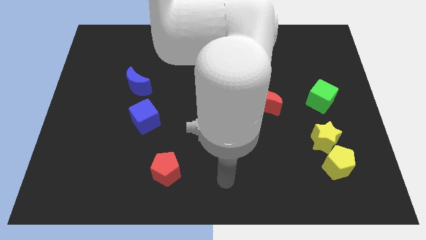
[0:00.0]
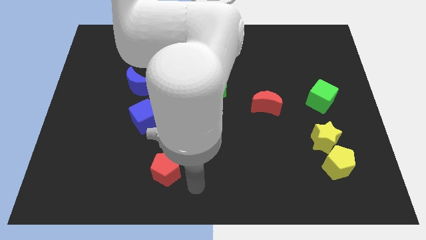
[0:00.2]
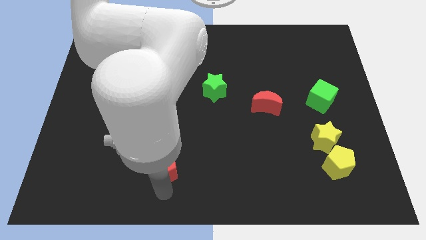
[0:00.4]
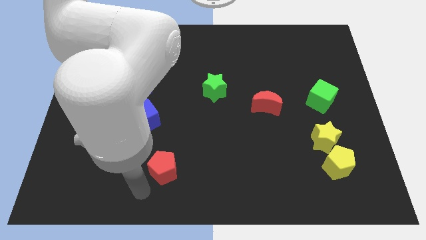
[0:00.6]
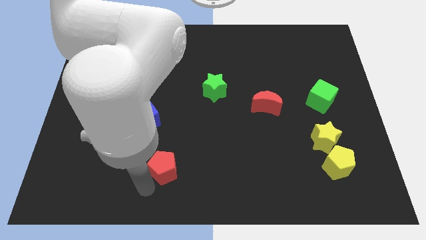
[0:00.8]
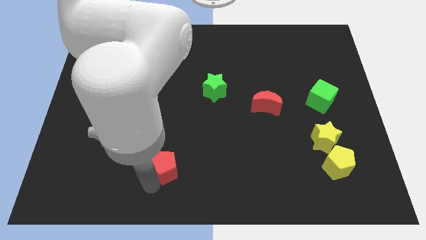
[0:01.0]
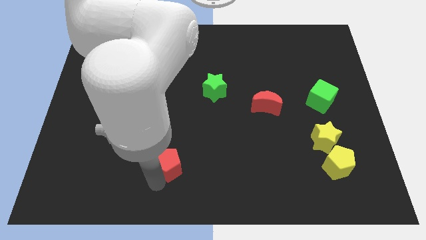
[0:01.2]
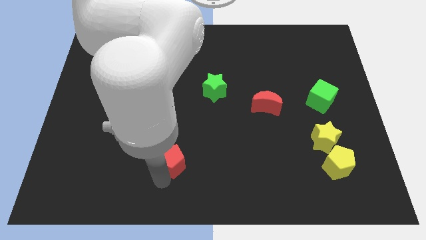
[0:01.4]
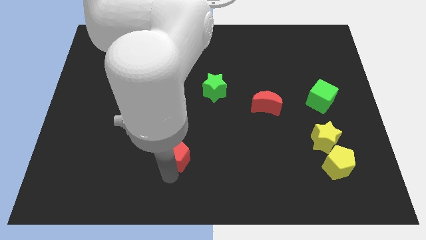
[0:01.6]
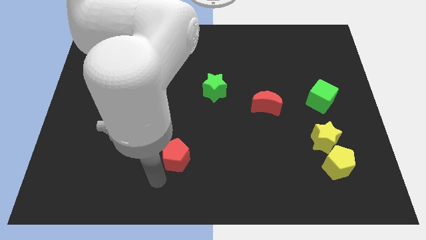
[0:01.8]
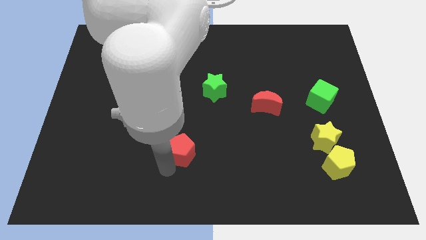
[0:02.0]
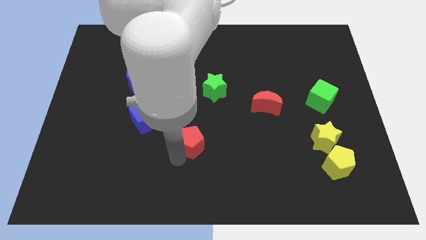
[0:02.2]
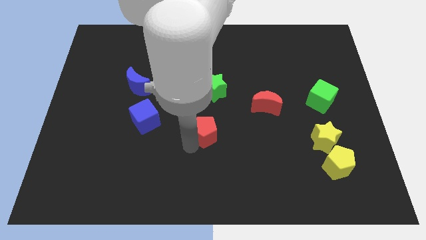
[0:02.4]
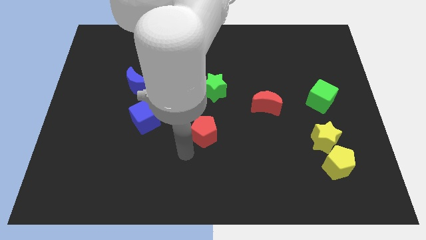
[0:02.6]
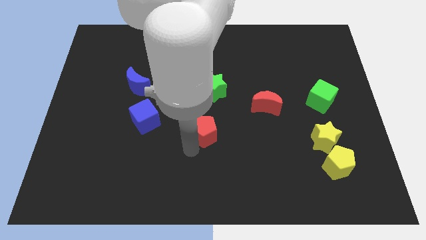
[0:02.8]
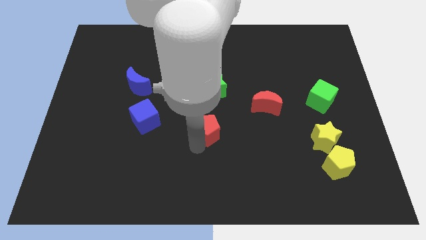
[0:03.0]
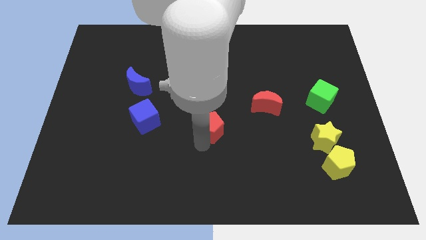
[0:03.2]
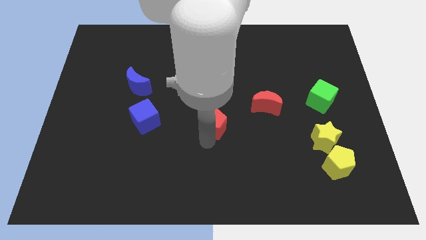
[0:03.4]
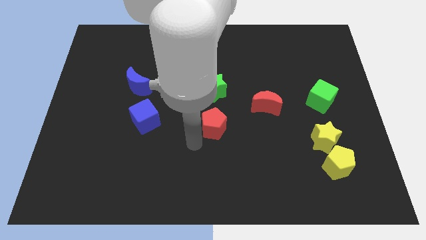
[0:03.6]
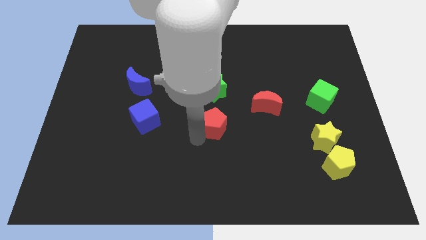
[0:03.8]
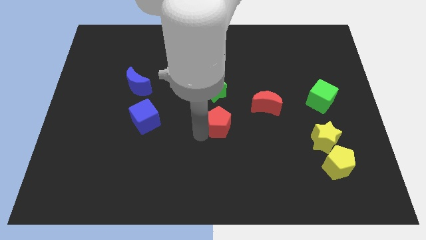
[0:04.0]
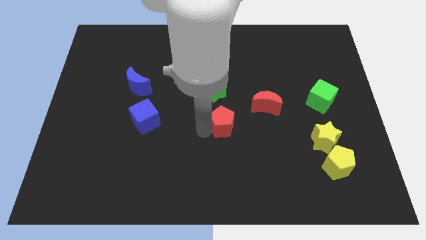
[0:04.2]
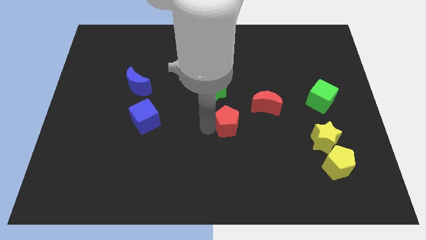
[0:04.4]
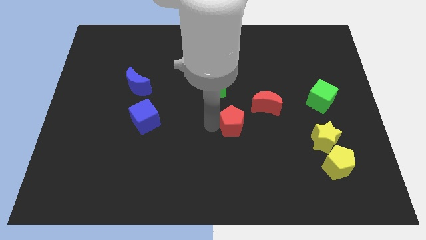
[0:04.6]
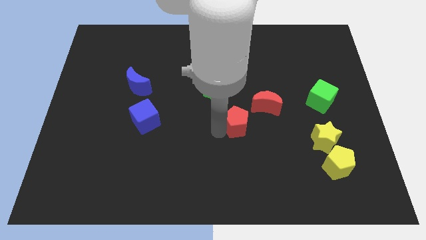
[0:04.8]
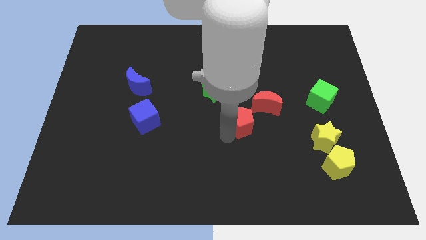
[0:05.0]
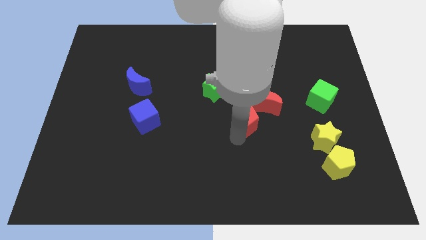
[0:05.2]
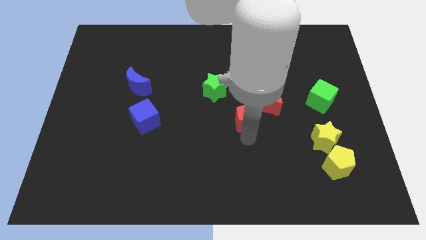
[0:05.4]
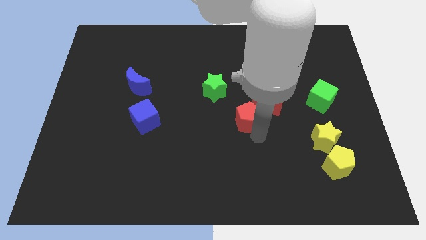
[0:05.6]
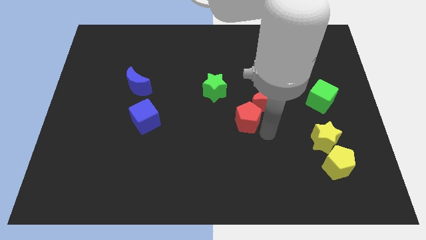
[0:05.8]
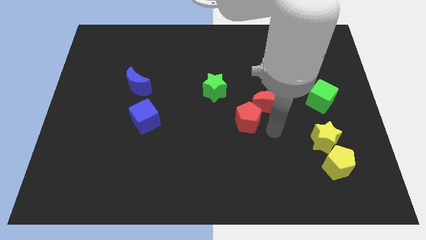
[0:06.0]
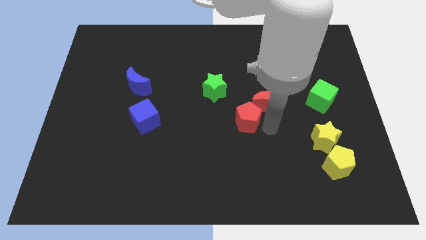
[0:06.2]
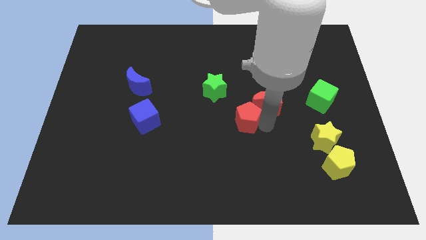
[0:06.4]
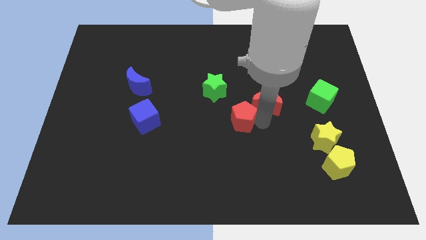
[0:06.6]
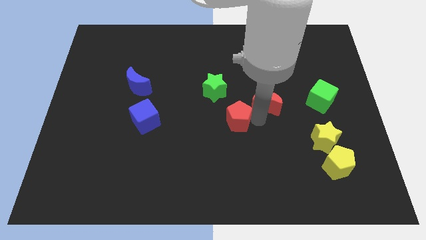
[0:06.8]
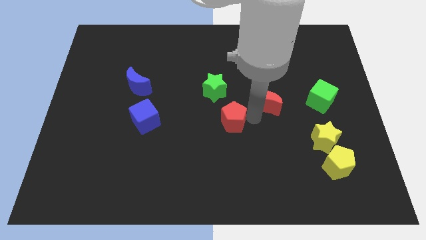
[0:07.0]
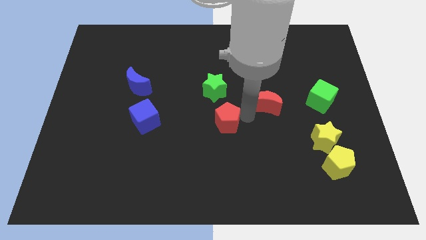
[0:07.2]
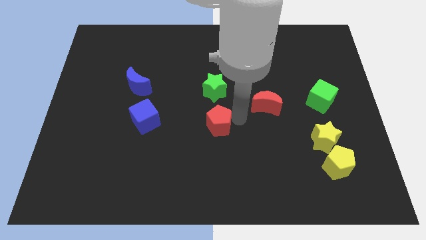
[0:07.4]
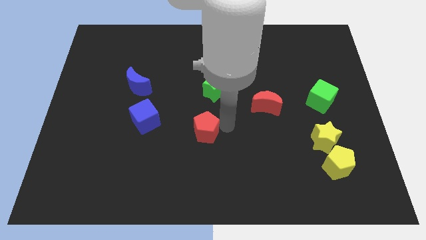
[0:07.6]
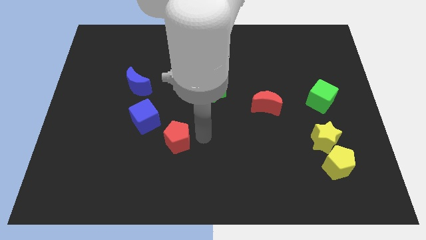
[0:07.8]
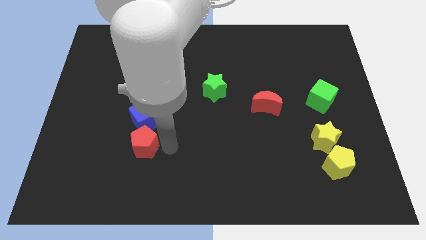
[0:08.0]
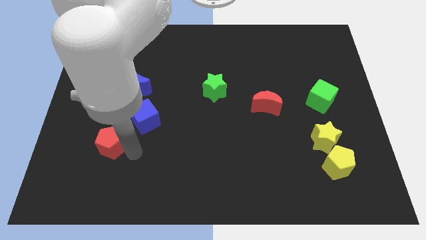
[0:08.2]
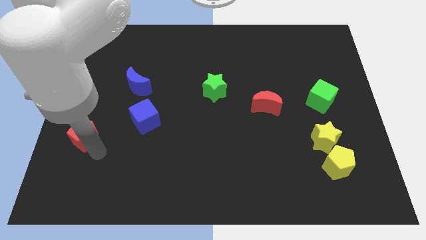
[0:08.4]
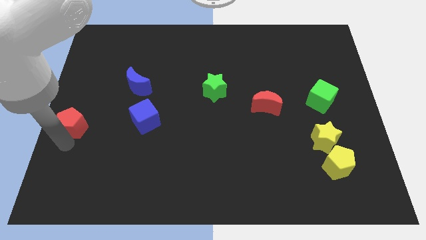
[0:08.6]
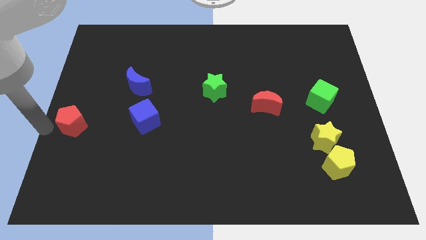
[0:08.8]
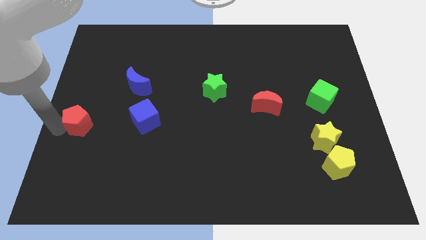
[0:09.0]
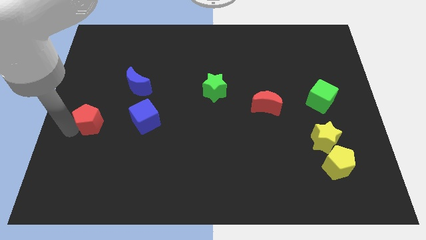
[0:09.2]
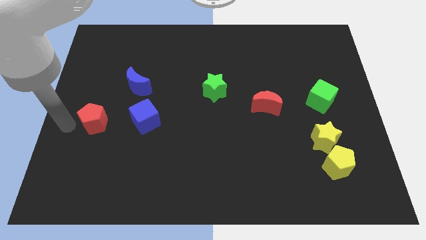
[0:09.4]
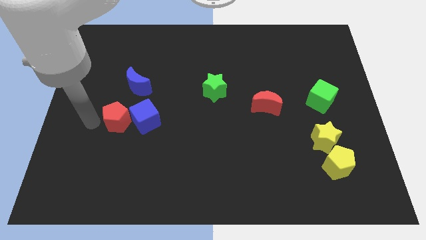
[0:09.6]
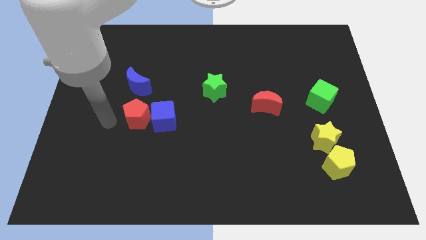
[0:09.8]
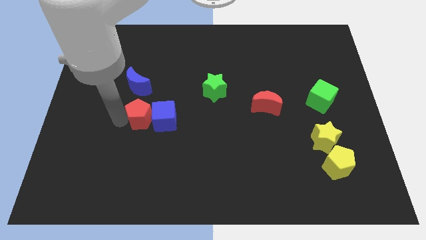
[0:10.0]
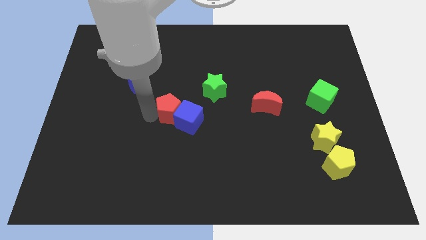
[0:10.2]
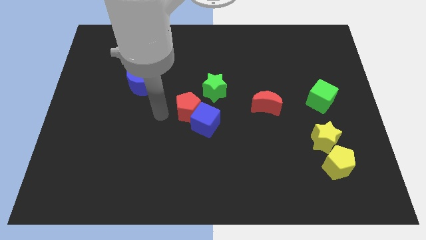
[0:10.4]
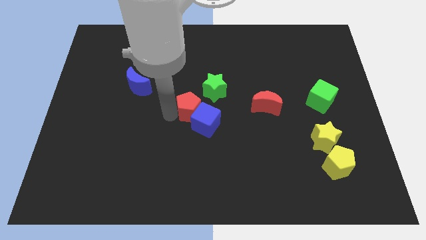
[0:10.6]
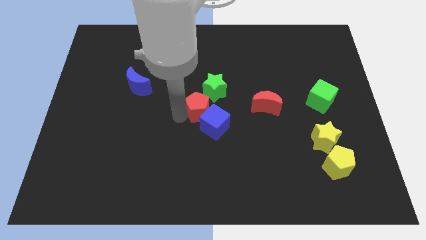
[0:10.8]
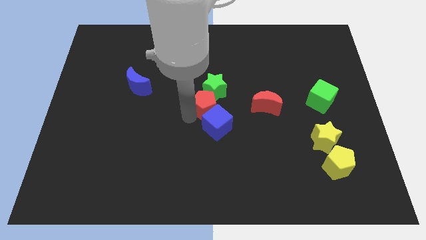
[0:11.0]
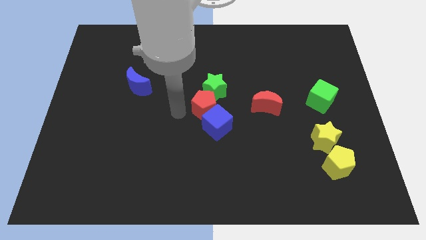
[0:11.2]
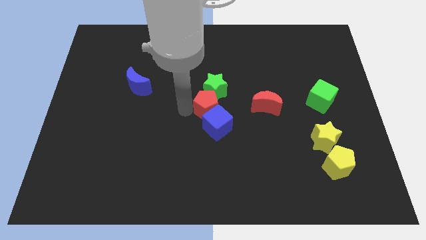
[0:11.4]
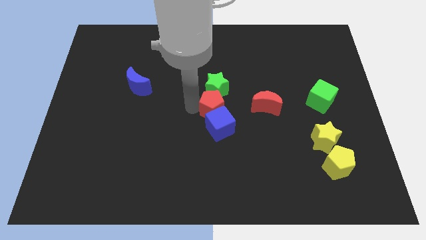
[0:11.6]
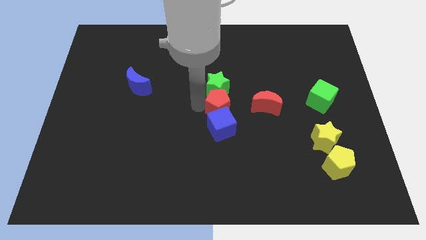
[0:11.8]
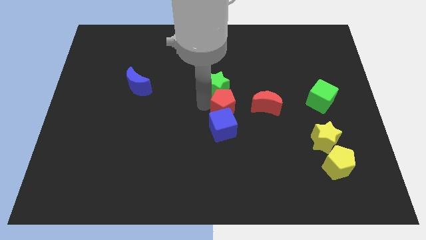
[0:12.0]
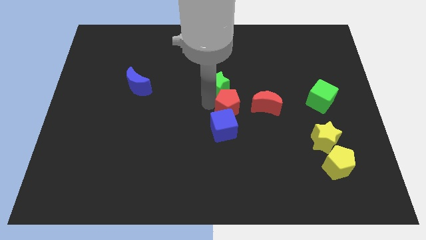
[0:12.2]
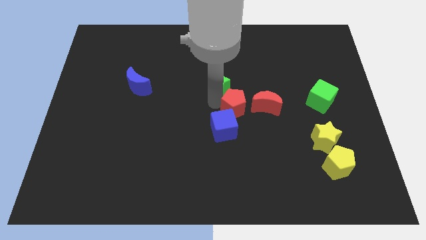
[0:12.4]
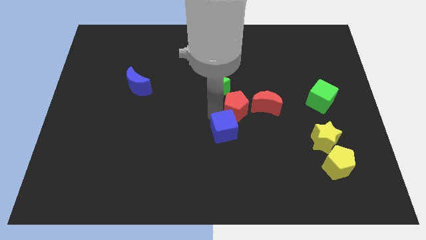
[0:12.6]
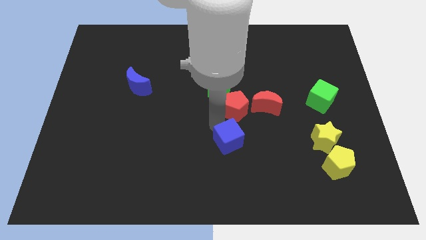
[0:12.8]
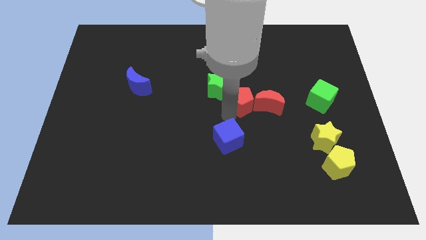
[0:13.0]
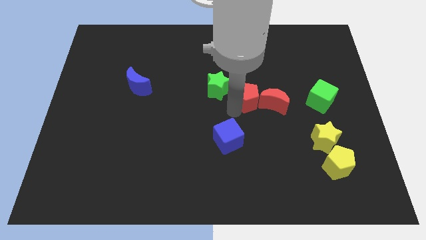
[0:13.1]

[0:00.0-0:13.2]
slide the red pentagon to the right side of the green star

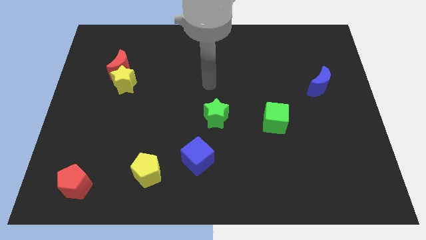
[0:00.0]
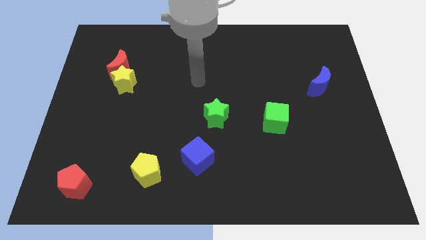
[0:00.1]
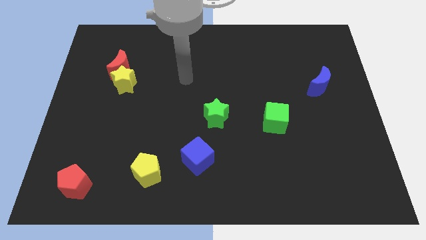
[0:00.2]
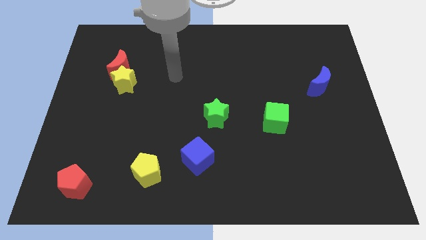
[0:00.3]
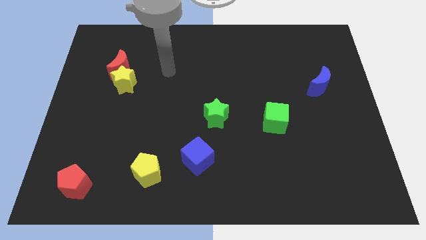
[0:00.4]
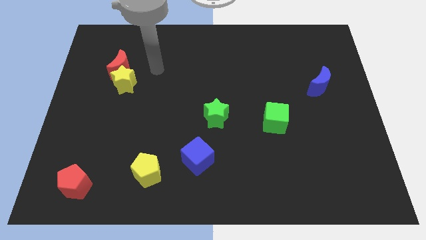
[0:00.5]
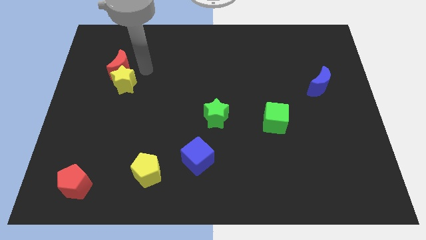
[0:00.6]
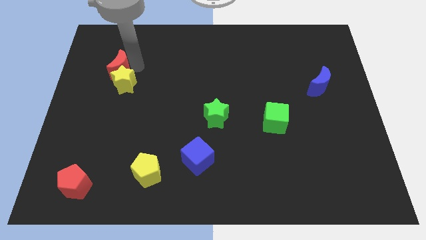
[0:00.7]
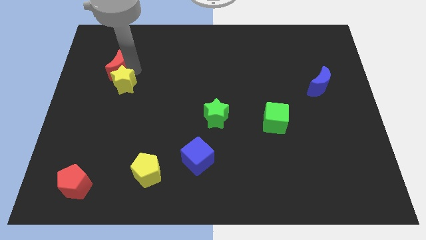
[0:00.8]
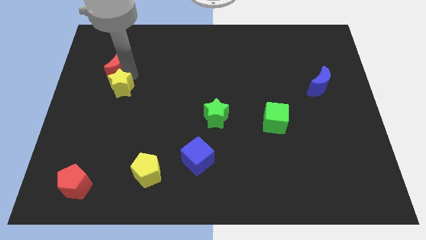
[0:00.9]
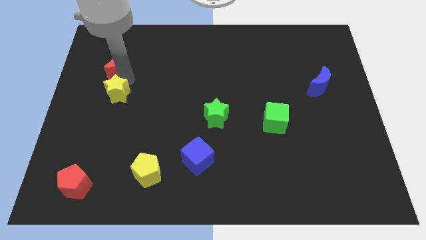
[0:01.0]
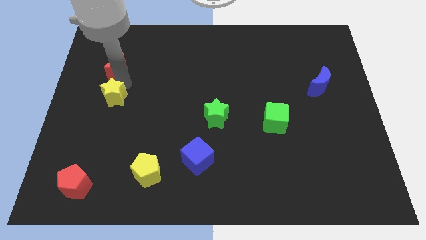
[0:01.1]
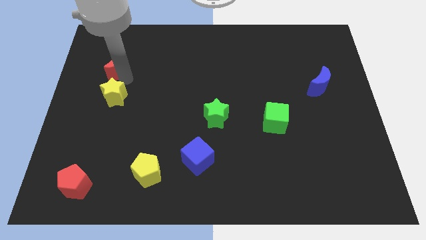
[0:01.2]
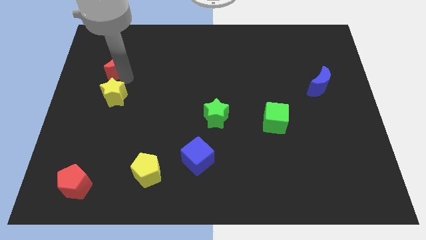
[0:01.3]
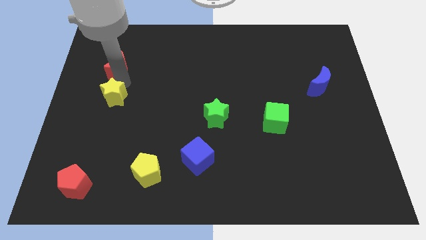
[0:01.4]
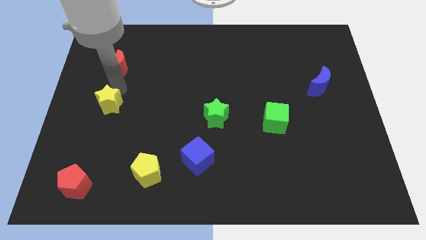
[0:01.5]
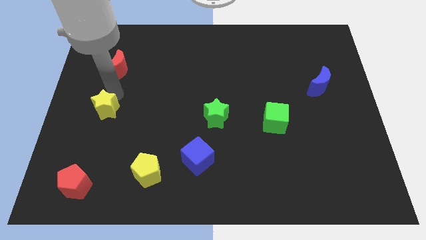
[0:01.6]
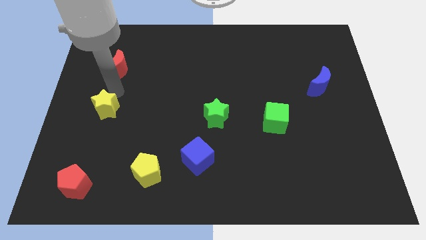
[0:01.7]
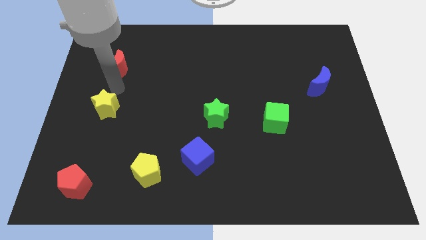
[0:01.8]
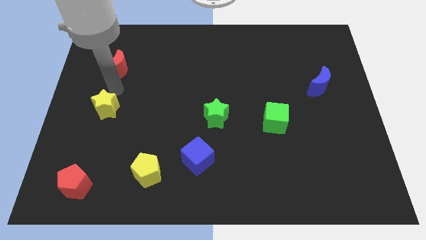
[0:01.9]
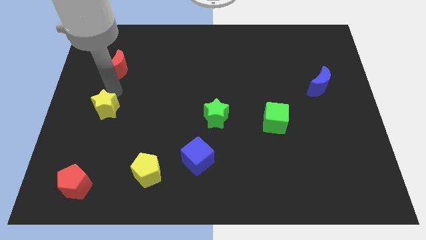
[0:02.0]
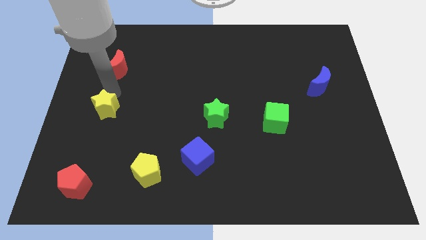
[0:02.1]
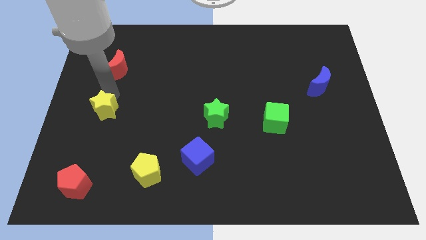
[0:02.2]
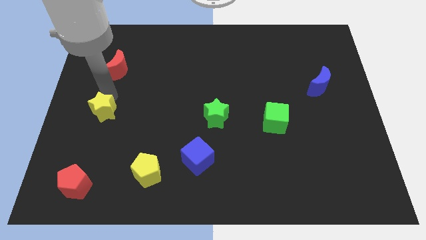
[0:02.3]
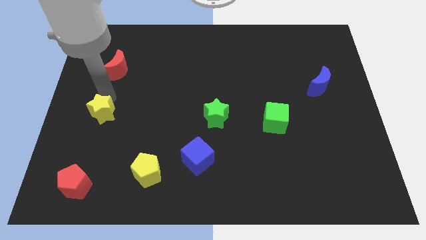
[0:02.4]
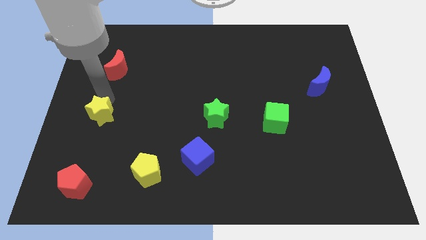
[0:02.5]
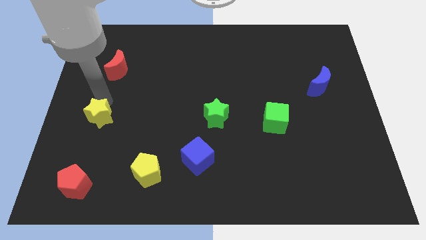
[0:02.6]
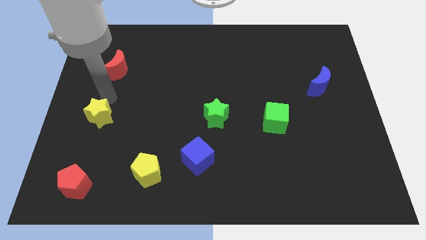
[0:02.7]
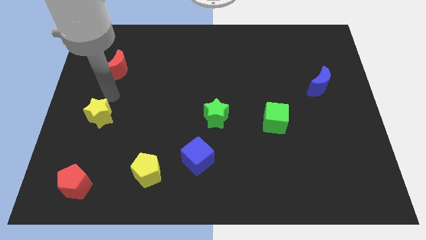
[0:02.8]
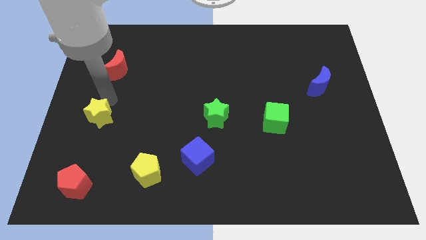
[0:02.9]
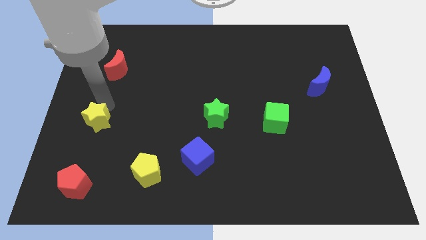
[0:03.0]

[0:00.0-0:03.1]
move the yellow star above the red pentagon
